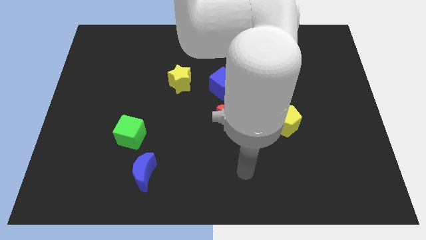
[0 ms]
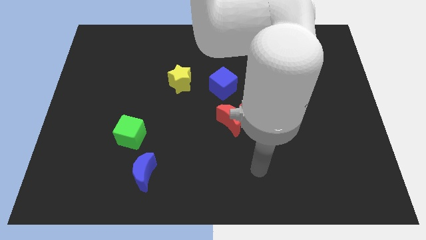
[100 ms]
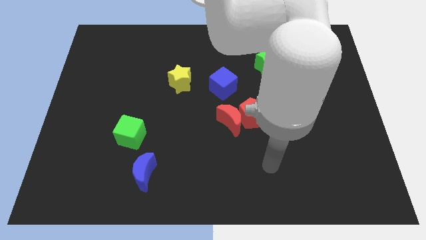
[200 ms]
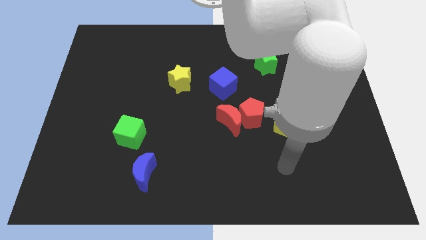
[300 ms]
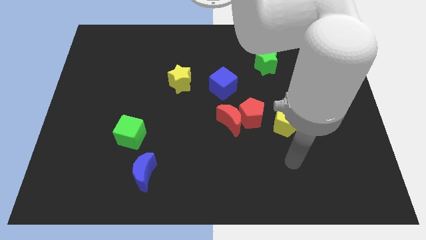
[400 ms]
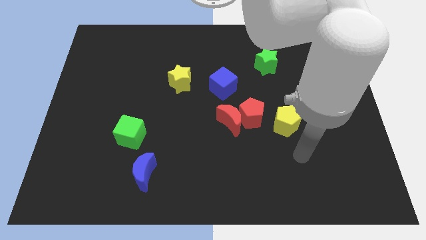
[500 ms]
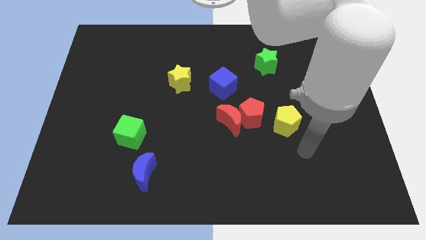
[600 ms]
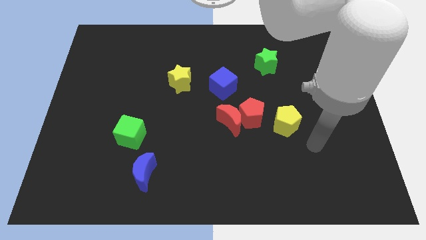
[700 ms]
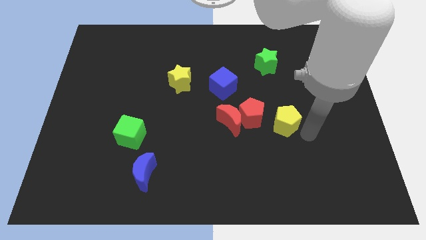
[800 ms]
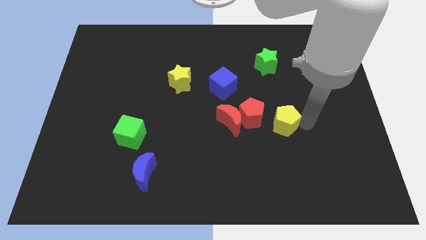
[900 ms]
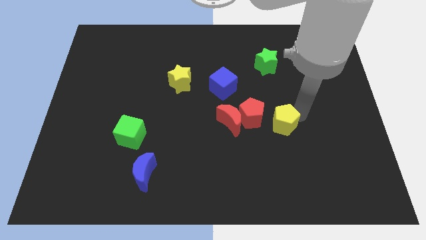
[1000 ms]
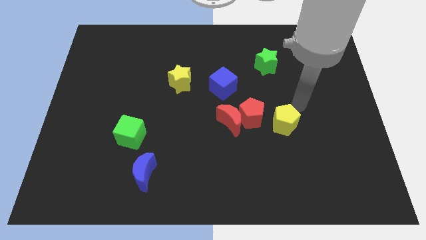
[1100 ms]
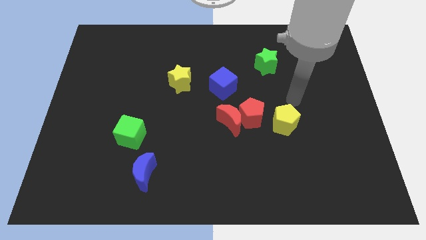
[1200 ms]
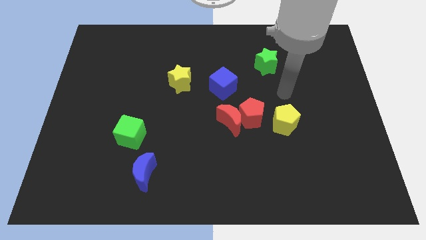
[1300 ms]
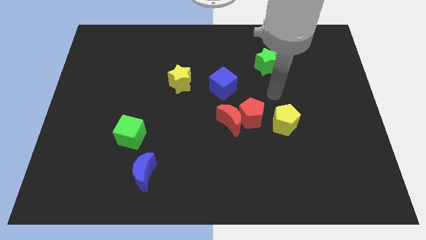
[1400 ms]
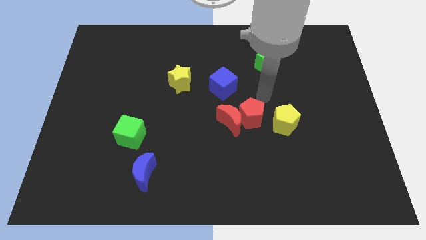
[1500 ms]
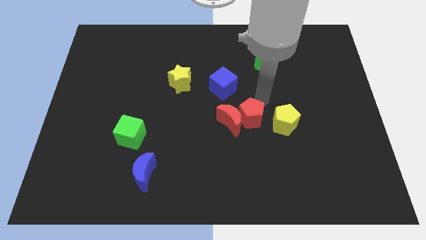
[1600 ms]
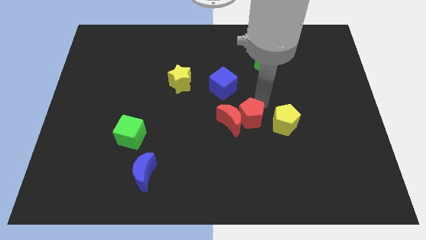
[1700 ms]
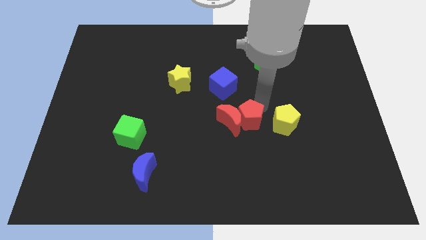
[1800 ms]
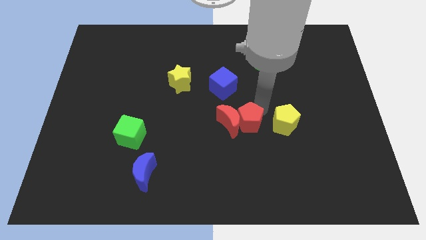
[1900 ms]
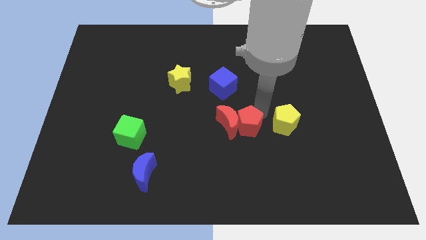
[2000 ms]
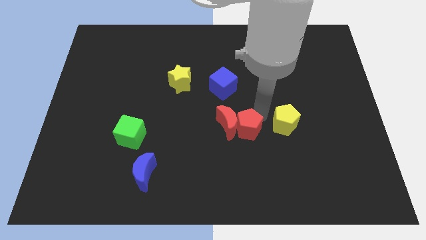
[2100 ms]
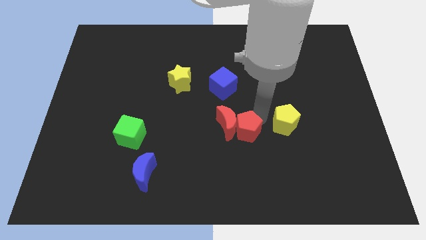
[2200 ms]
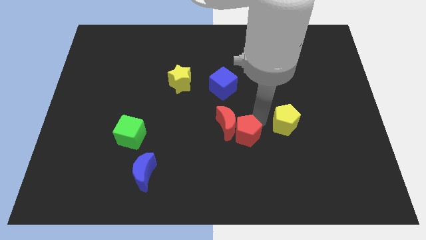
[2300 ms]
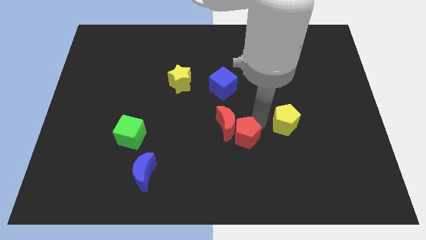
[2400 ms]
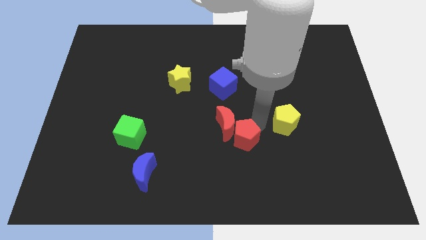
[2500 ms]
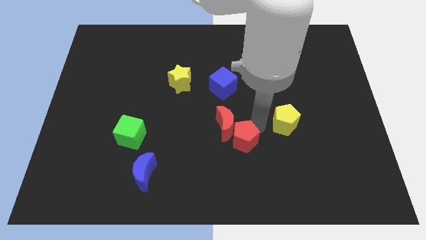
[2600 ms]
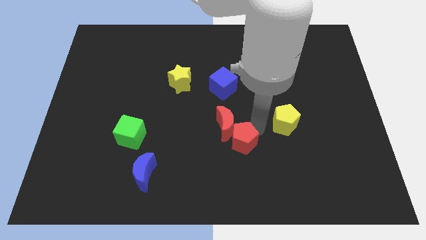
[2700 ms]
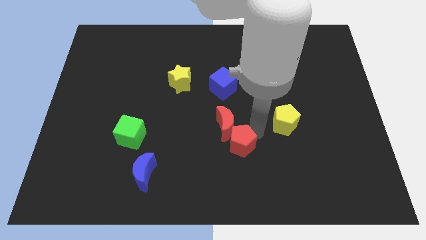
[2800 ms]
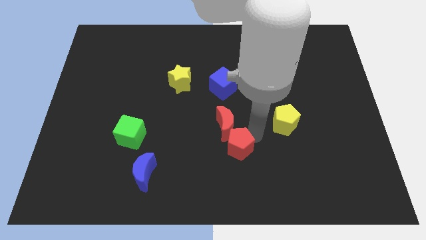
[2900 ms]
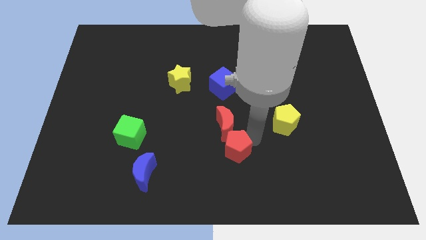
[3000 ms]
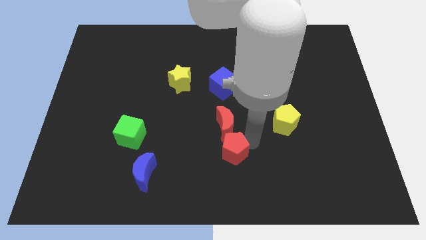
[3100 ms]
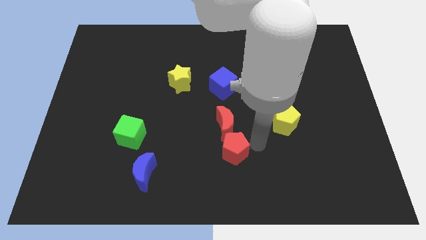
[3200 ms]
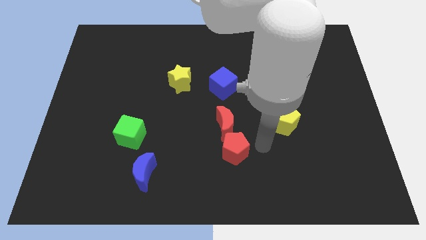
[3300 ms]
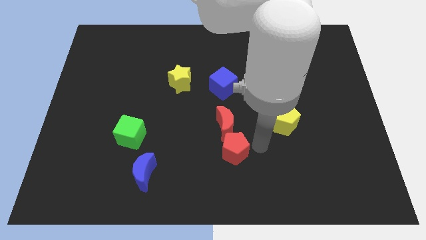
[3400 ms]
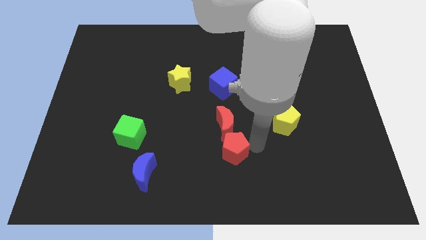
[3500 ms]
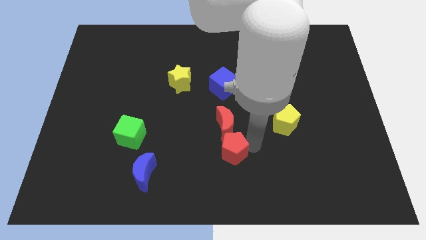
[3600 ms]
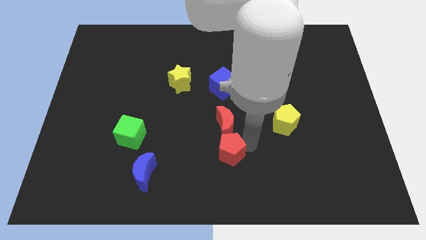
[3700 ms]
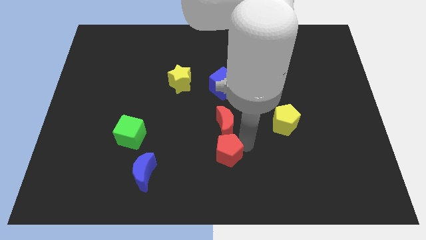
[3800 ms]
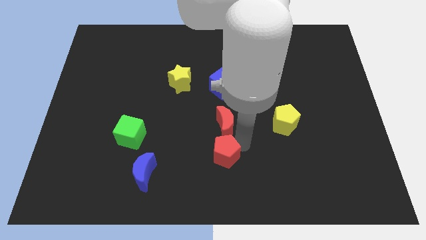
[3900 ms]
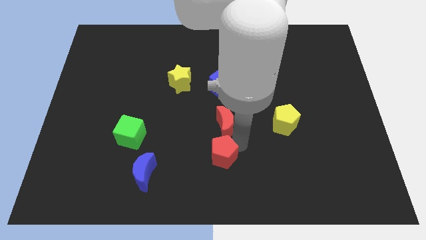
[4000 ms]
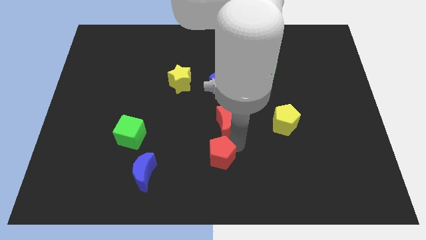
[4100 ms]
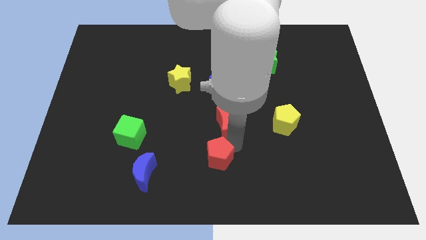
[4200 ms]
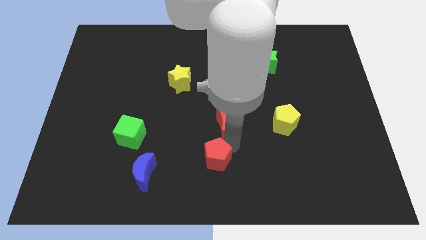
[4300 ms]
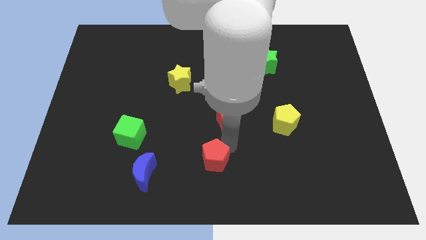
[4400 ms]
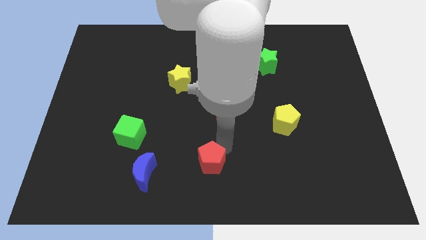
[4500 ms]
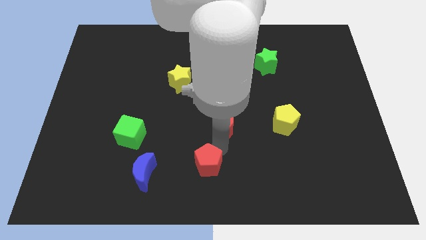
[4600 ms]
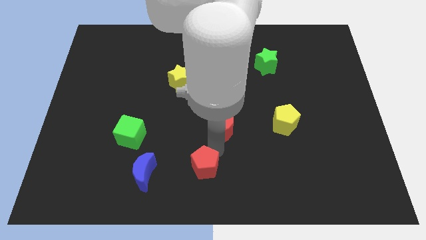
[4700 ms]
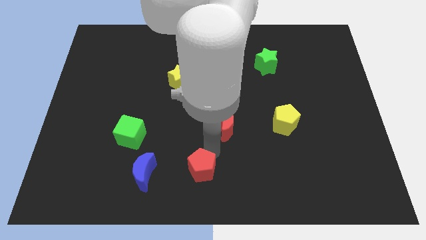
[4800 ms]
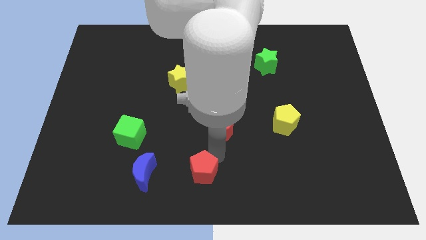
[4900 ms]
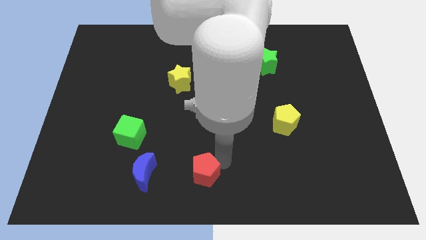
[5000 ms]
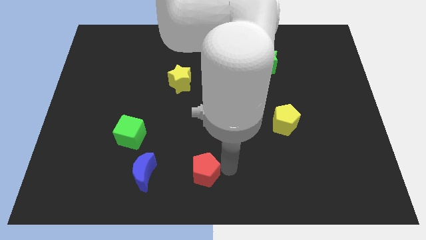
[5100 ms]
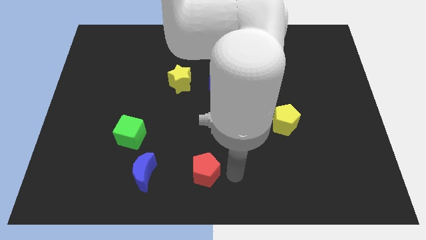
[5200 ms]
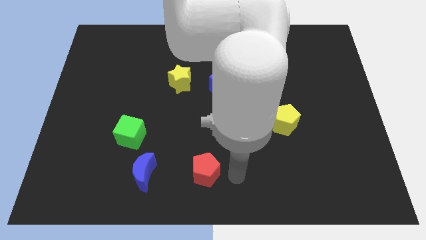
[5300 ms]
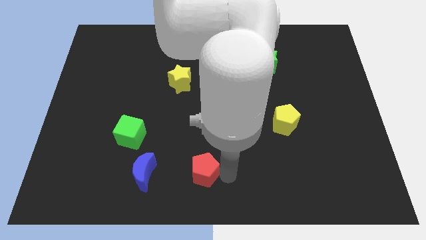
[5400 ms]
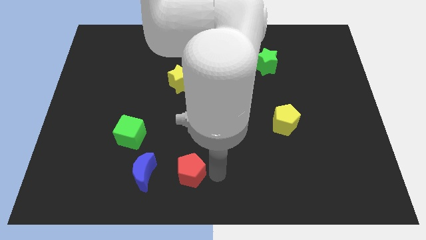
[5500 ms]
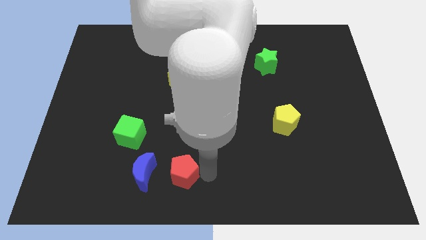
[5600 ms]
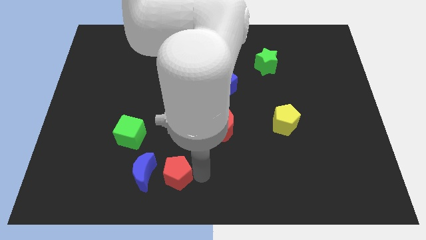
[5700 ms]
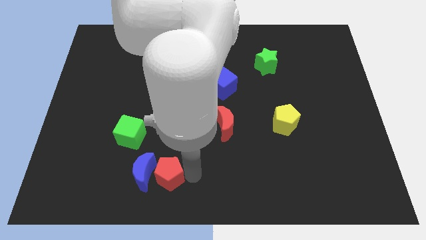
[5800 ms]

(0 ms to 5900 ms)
put the red pentagon next to the blue moon

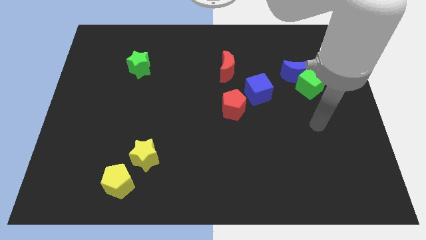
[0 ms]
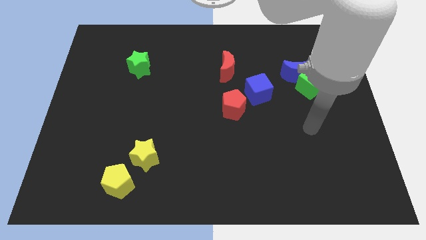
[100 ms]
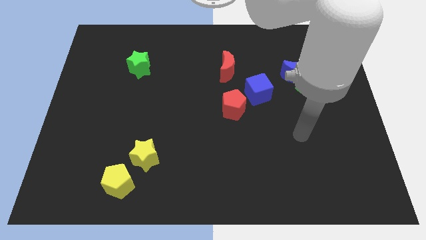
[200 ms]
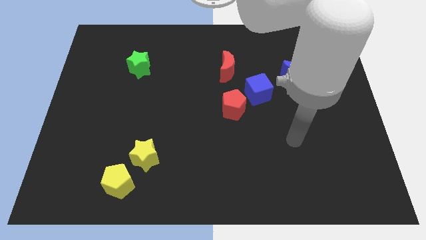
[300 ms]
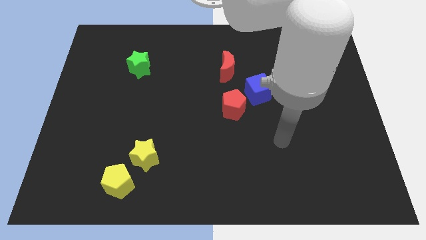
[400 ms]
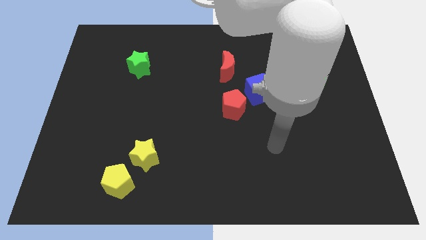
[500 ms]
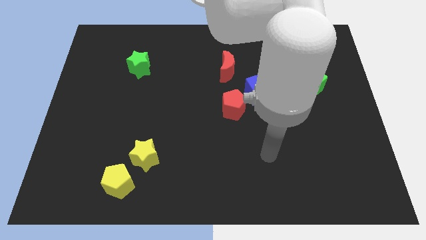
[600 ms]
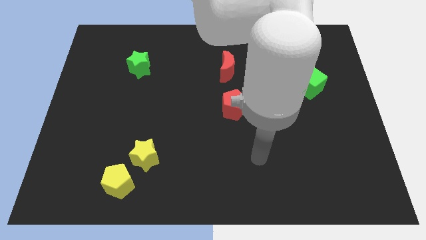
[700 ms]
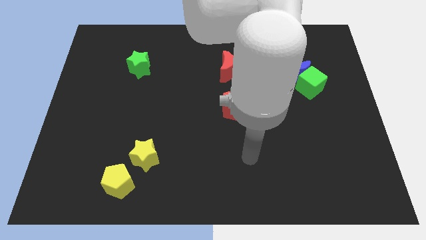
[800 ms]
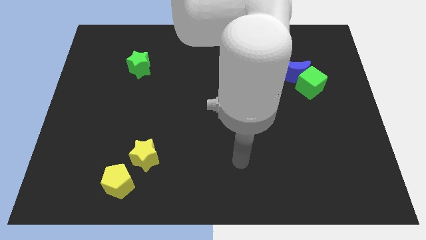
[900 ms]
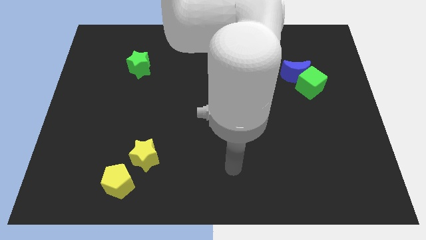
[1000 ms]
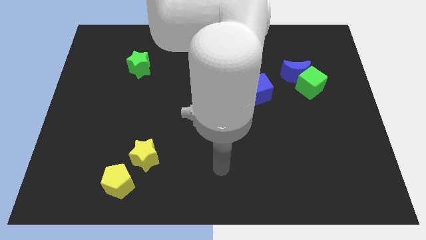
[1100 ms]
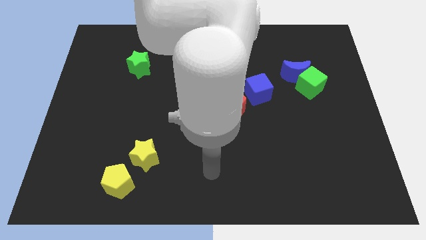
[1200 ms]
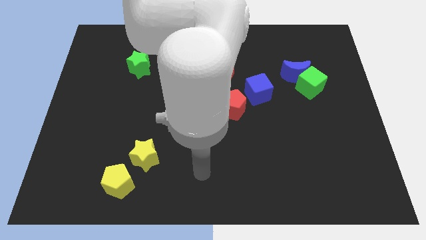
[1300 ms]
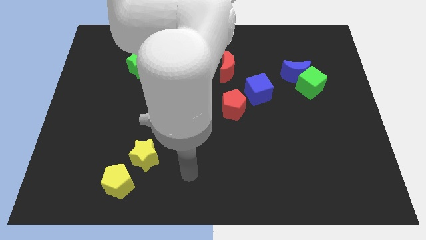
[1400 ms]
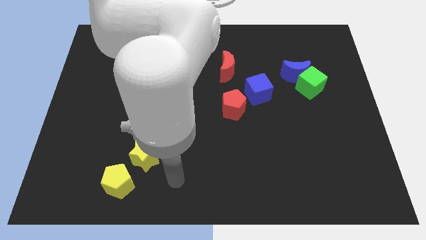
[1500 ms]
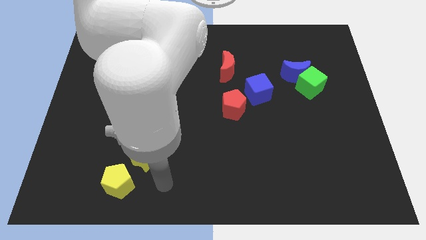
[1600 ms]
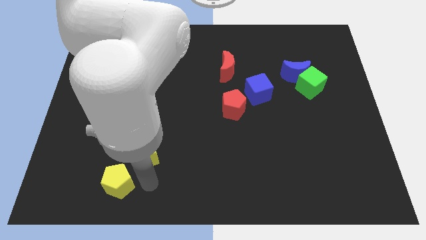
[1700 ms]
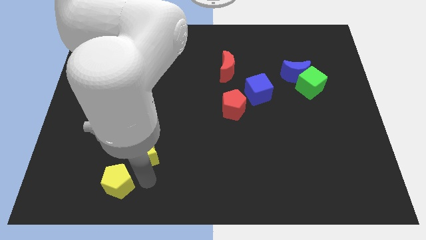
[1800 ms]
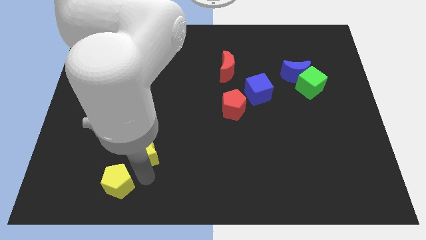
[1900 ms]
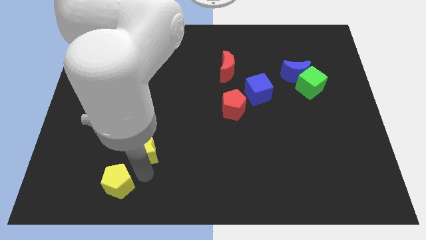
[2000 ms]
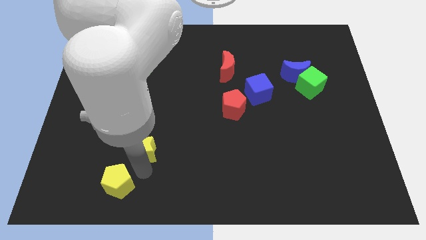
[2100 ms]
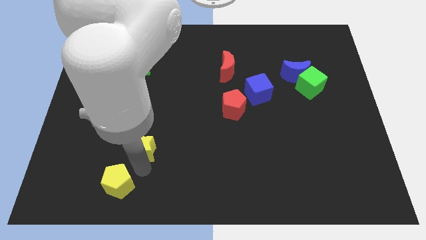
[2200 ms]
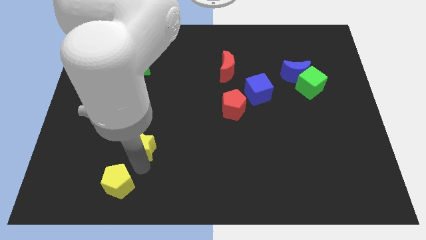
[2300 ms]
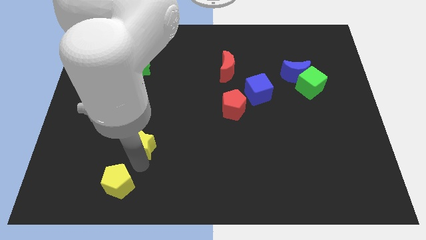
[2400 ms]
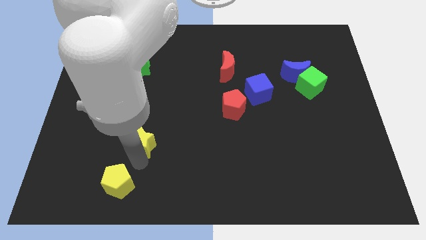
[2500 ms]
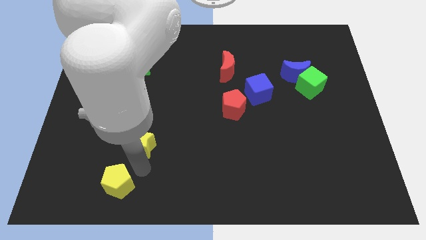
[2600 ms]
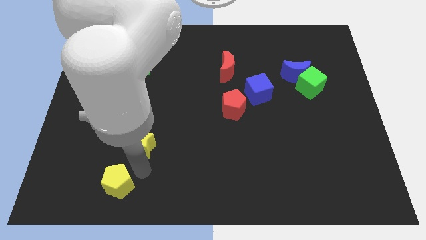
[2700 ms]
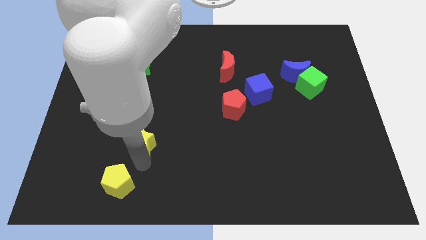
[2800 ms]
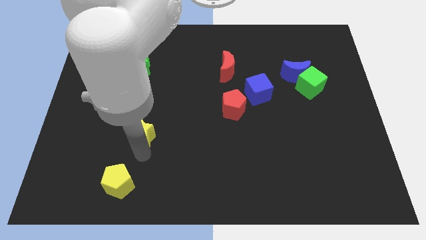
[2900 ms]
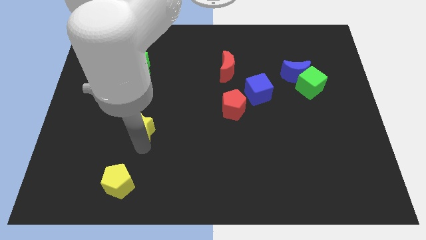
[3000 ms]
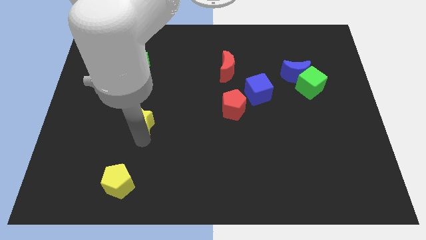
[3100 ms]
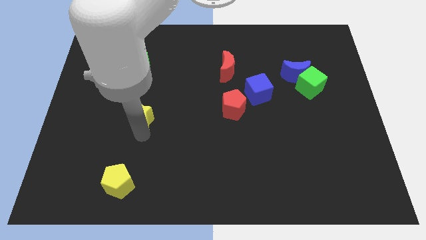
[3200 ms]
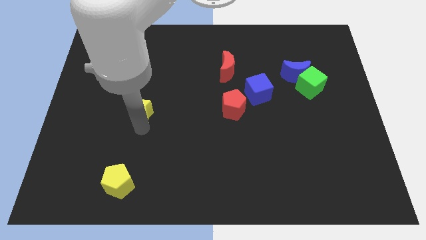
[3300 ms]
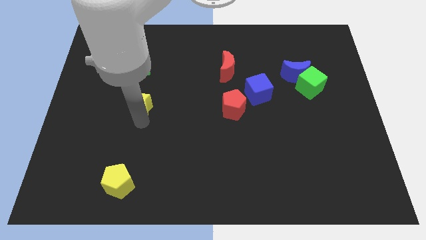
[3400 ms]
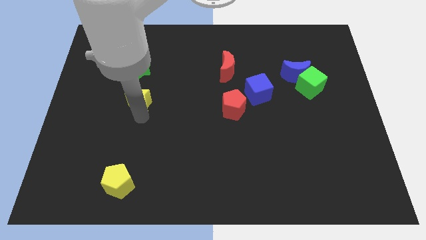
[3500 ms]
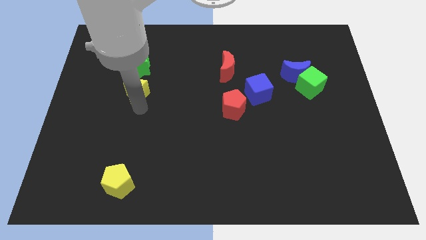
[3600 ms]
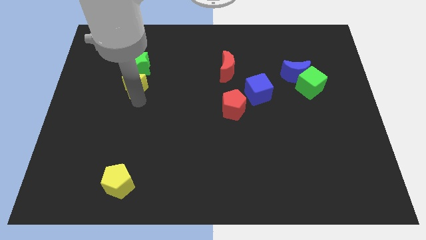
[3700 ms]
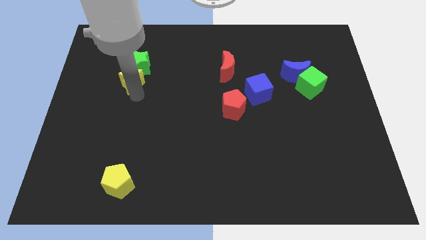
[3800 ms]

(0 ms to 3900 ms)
move the yellow star towards the green star
